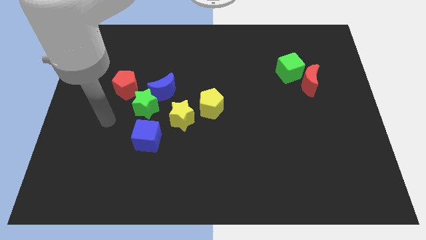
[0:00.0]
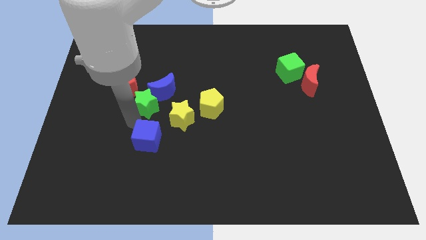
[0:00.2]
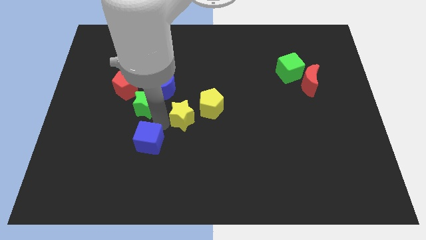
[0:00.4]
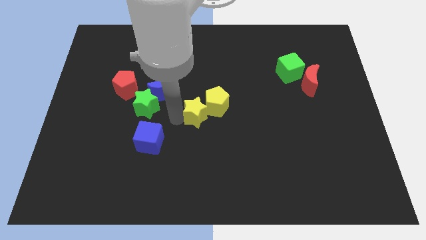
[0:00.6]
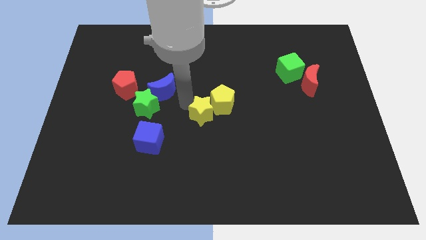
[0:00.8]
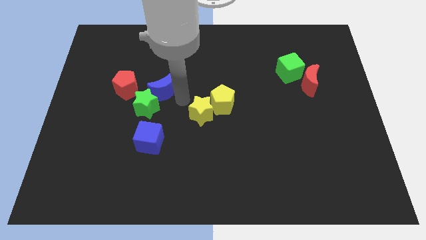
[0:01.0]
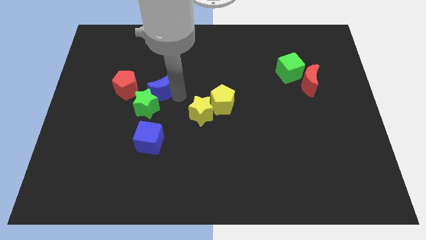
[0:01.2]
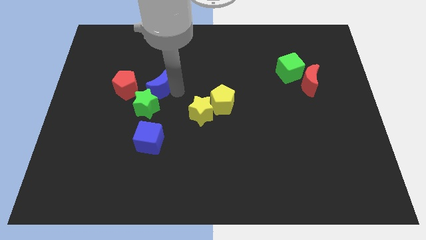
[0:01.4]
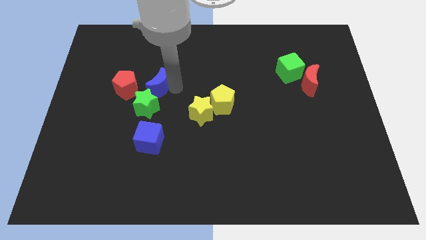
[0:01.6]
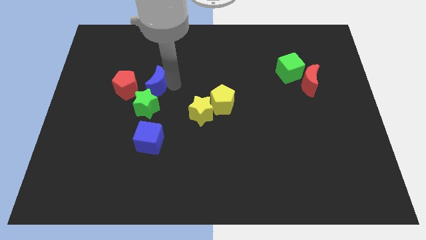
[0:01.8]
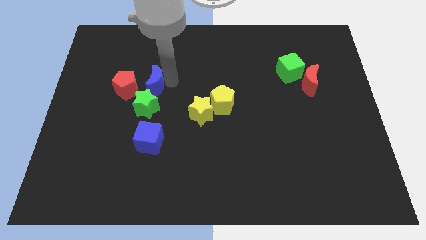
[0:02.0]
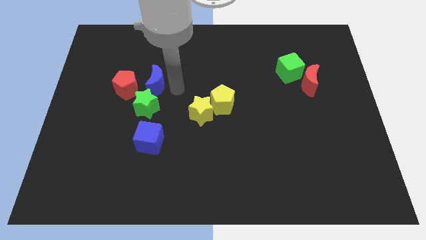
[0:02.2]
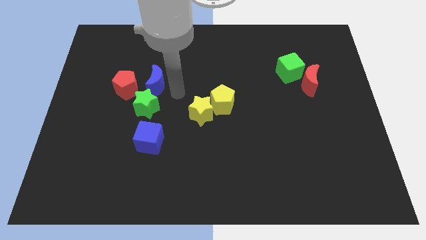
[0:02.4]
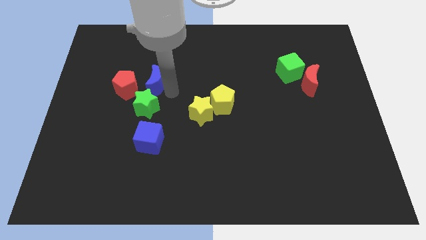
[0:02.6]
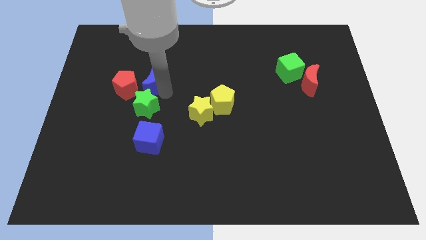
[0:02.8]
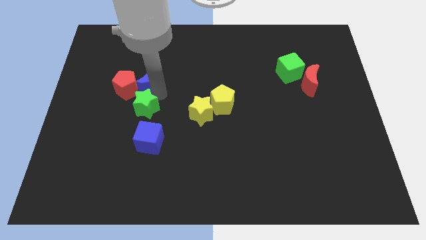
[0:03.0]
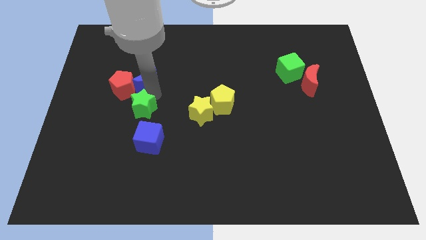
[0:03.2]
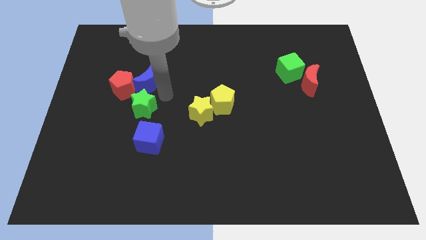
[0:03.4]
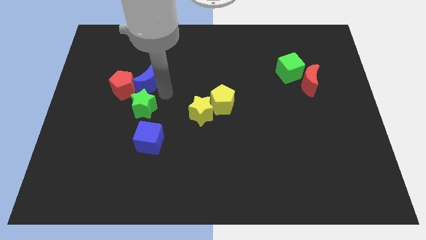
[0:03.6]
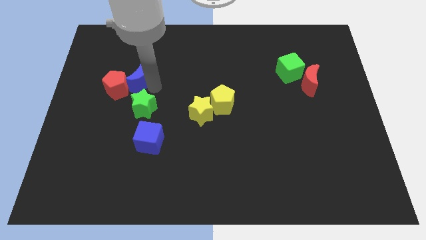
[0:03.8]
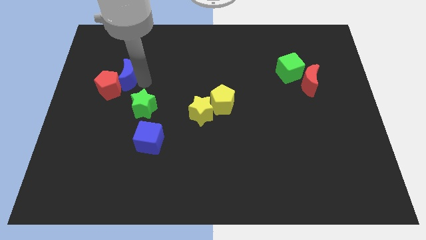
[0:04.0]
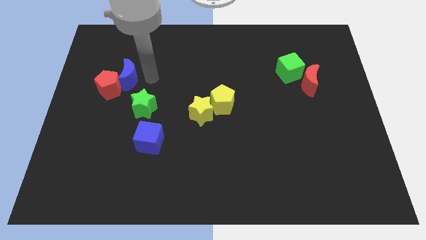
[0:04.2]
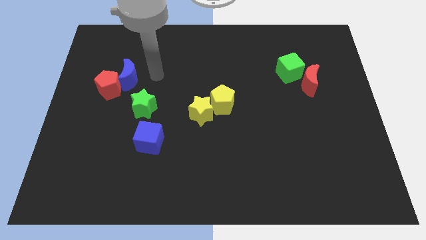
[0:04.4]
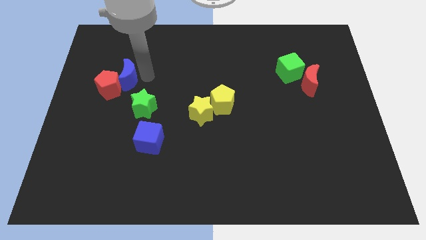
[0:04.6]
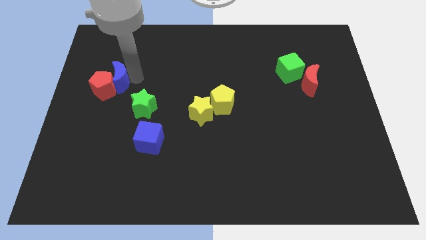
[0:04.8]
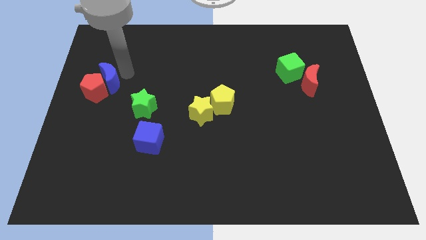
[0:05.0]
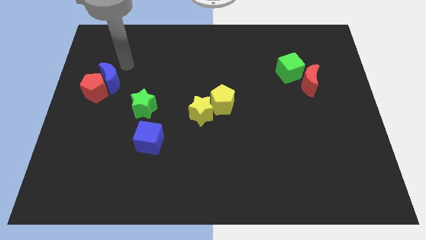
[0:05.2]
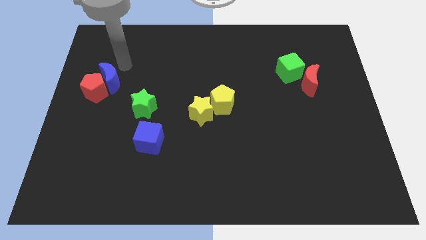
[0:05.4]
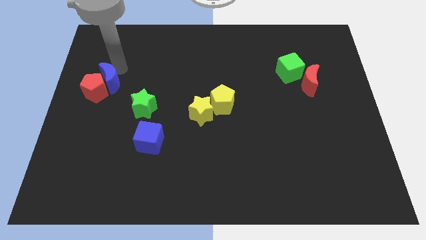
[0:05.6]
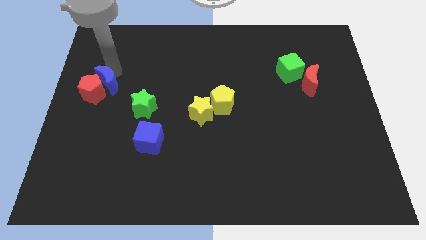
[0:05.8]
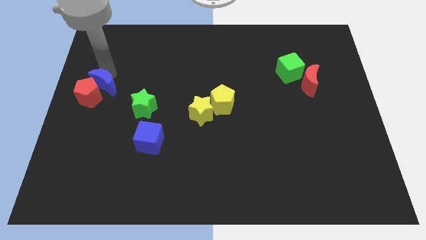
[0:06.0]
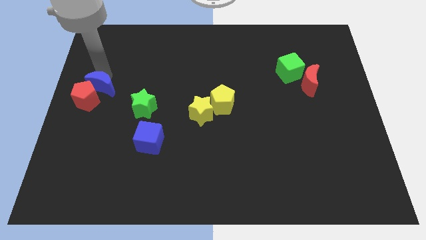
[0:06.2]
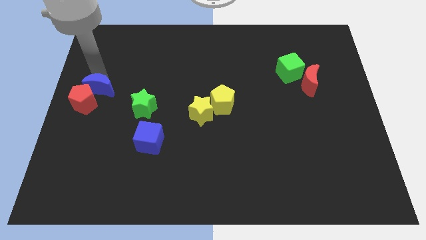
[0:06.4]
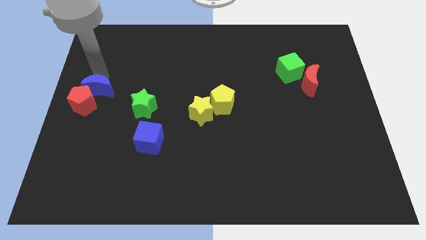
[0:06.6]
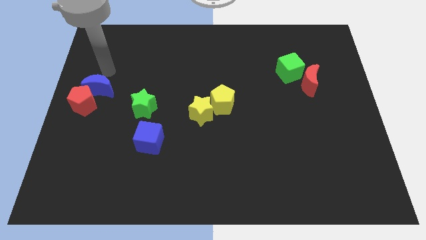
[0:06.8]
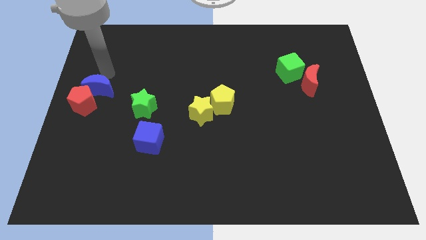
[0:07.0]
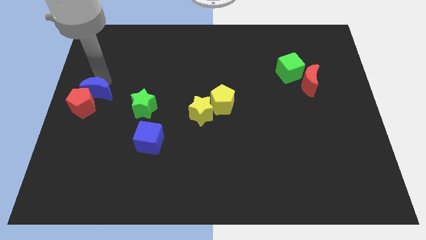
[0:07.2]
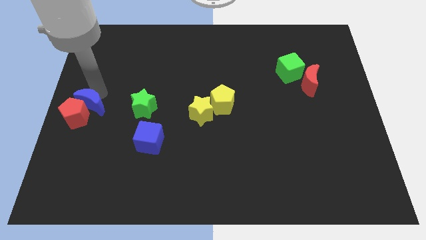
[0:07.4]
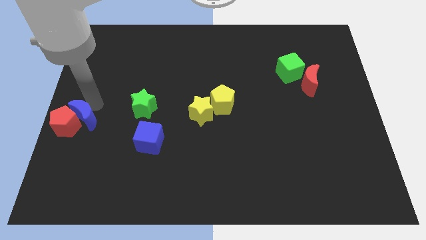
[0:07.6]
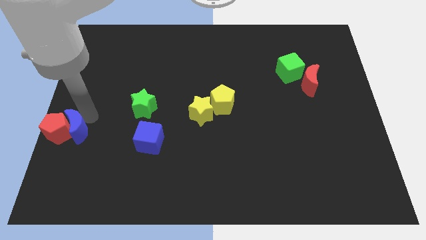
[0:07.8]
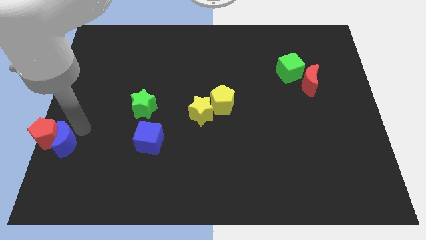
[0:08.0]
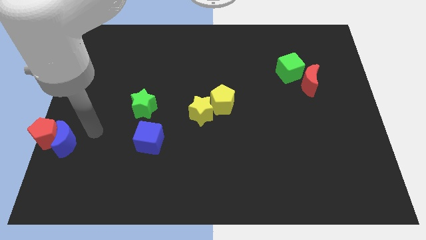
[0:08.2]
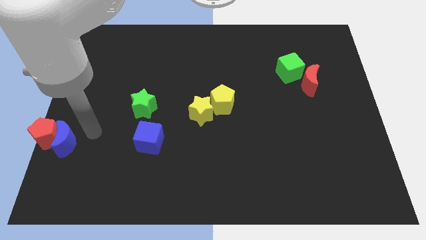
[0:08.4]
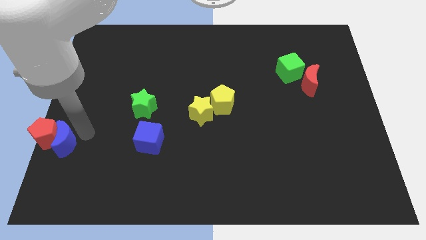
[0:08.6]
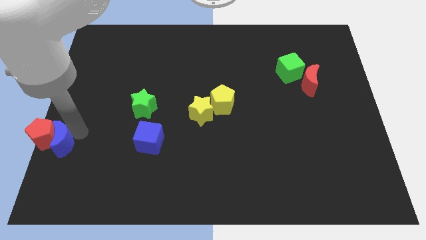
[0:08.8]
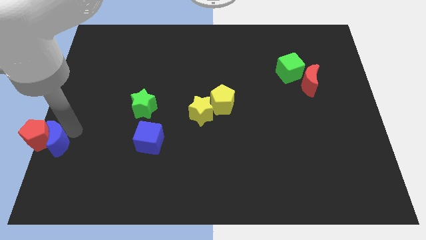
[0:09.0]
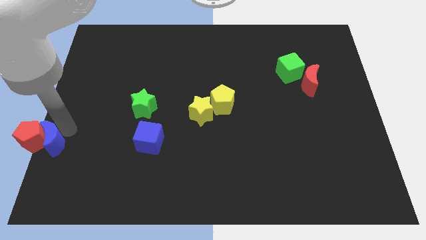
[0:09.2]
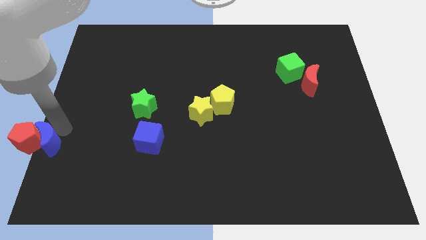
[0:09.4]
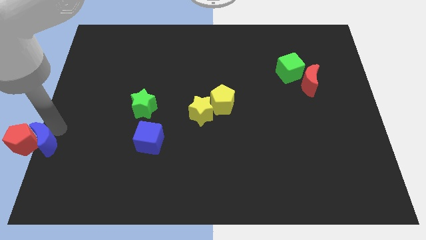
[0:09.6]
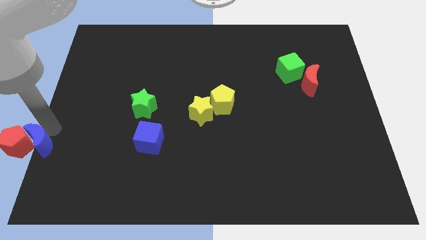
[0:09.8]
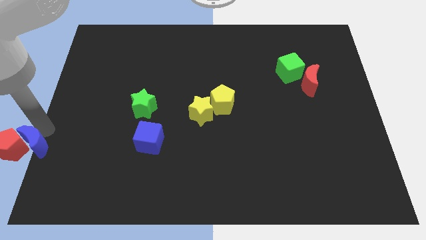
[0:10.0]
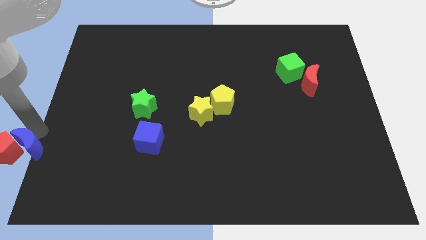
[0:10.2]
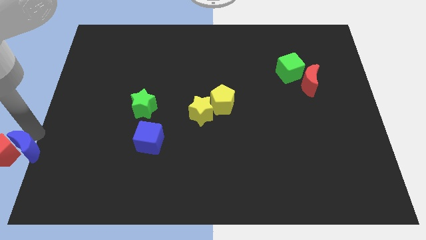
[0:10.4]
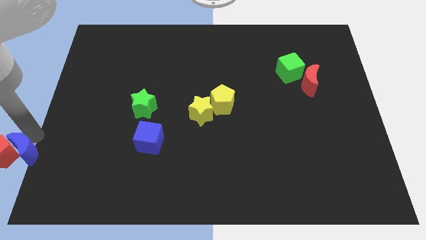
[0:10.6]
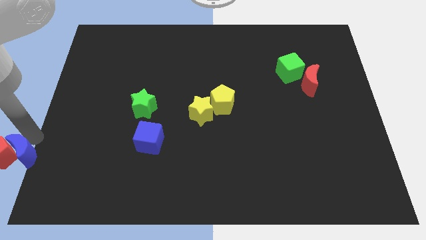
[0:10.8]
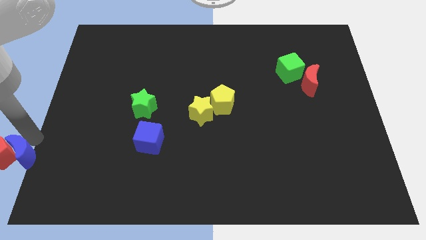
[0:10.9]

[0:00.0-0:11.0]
move the blue moon to the bottom left corner

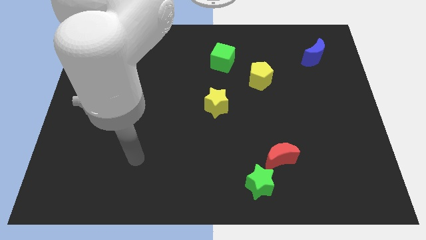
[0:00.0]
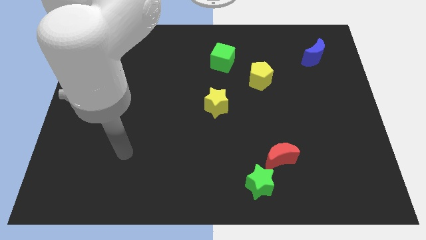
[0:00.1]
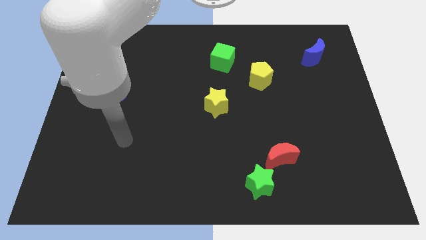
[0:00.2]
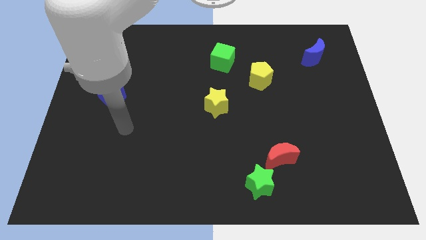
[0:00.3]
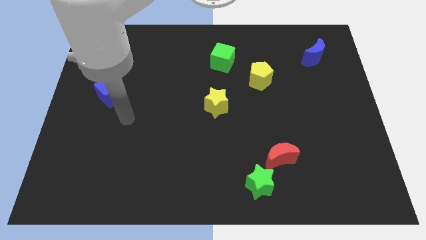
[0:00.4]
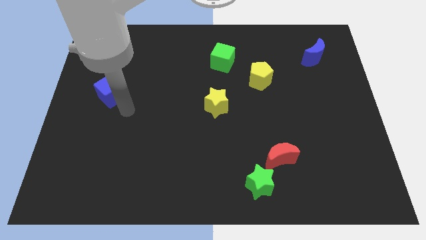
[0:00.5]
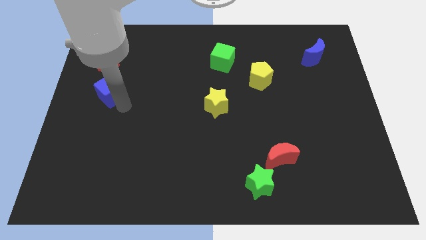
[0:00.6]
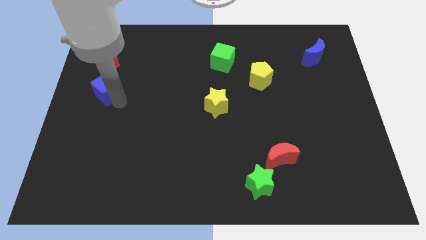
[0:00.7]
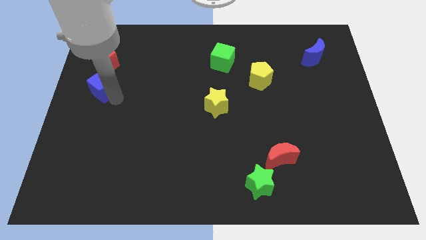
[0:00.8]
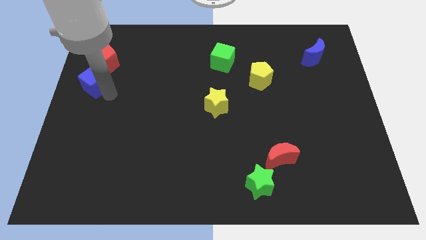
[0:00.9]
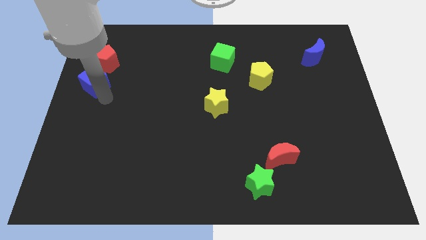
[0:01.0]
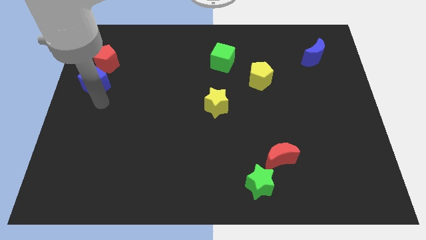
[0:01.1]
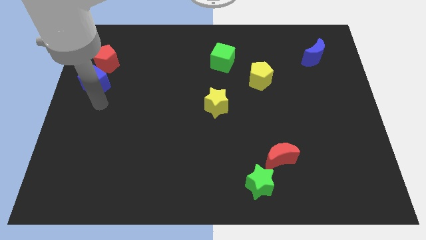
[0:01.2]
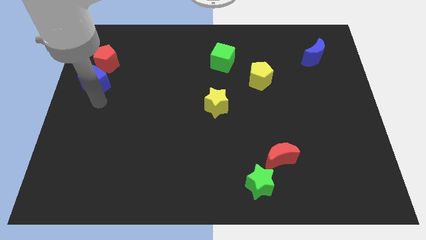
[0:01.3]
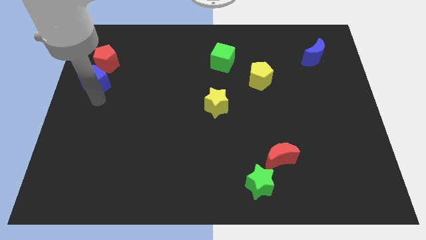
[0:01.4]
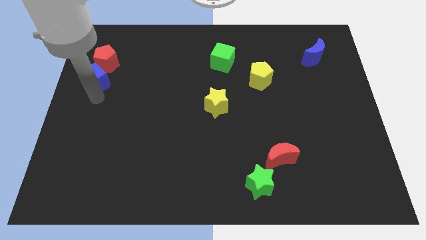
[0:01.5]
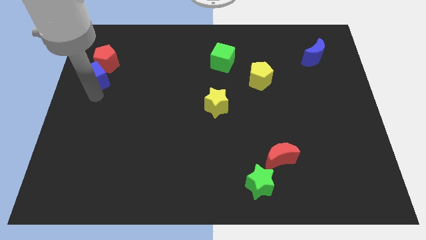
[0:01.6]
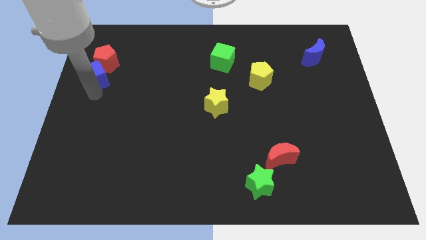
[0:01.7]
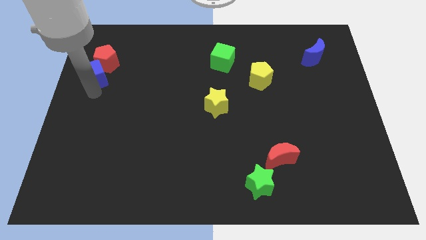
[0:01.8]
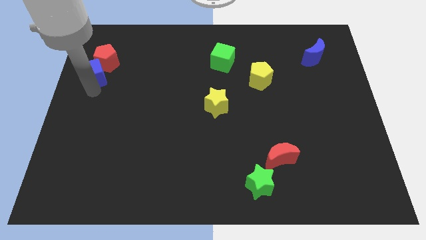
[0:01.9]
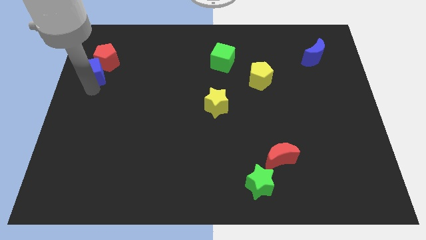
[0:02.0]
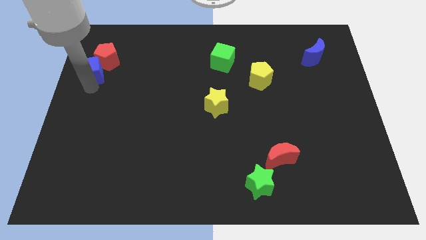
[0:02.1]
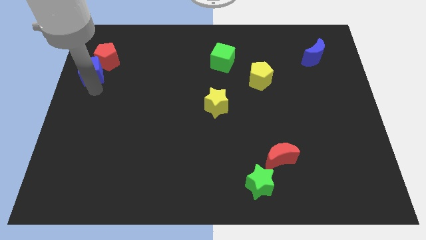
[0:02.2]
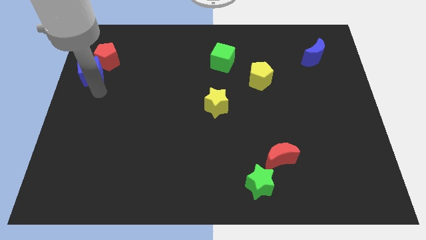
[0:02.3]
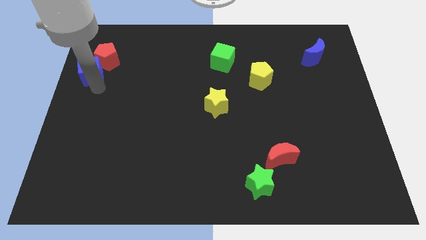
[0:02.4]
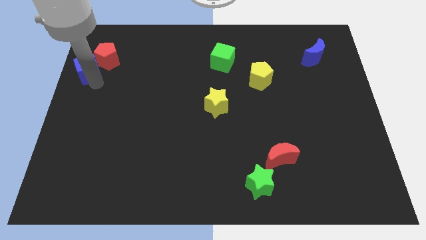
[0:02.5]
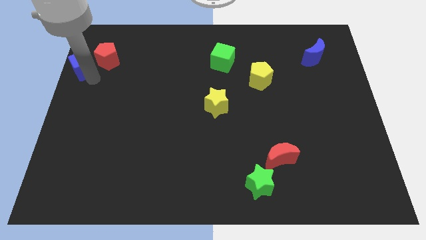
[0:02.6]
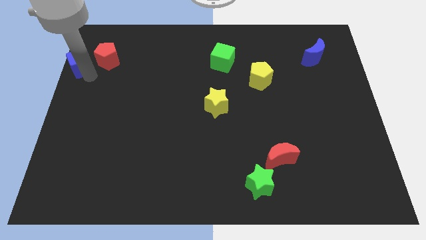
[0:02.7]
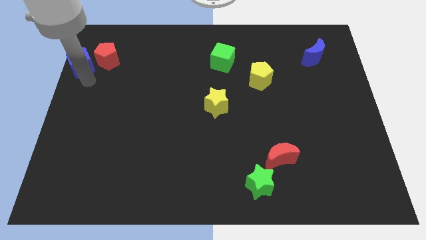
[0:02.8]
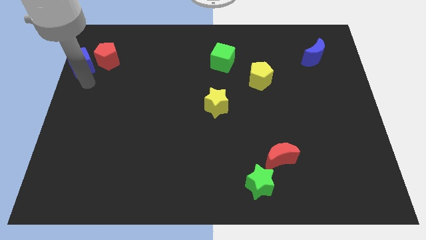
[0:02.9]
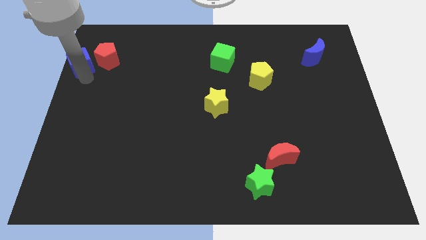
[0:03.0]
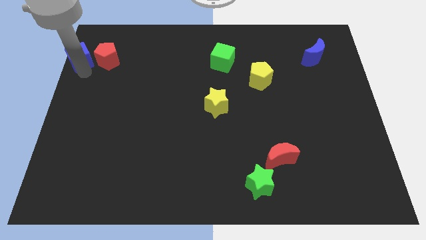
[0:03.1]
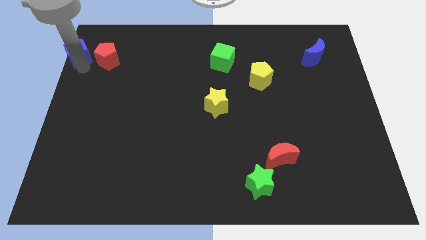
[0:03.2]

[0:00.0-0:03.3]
move the blue cube to the top left corner
